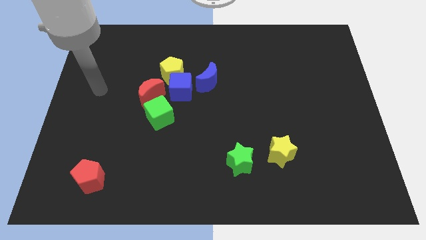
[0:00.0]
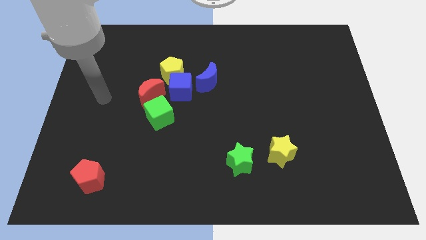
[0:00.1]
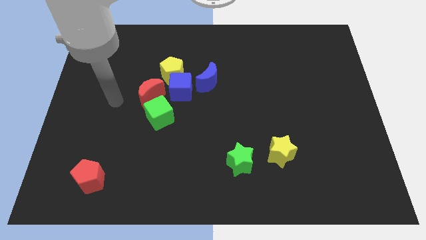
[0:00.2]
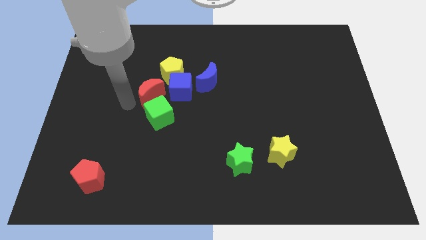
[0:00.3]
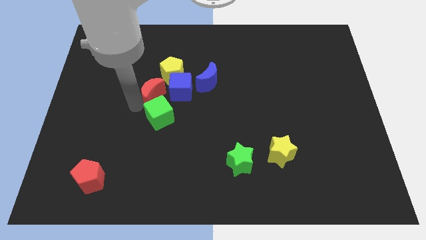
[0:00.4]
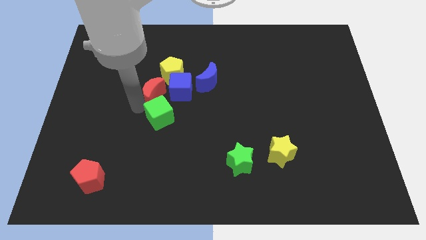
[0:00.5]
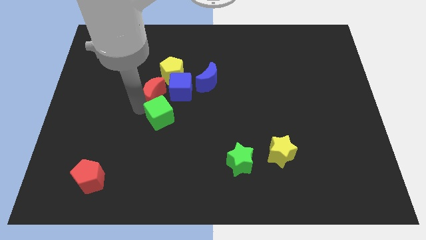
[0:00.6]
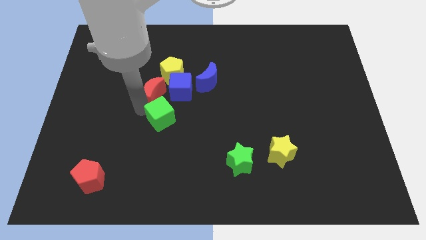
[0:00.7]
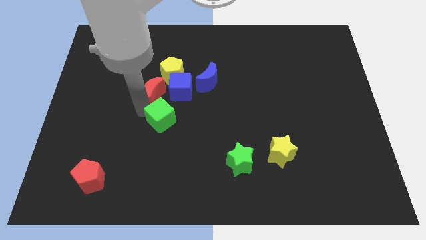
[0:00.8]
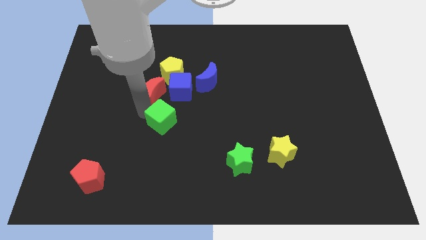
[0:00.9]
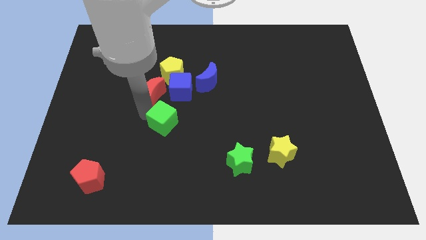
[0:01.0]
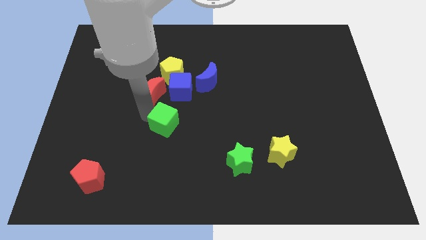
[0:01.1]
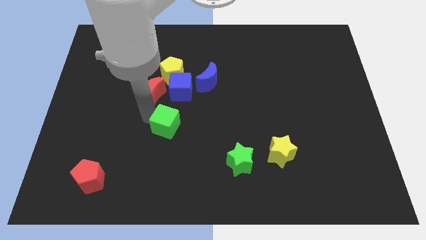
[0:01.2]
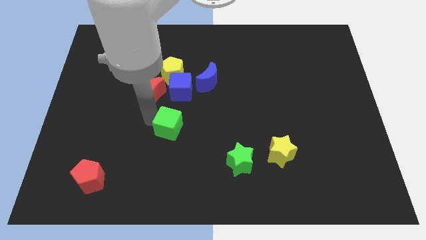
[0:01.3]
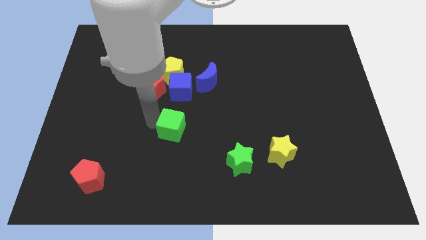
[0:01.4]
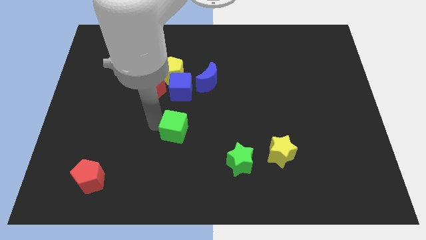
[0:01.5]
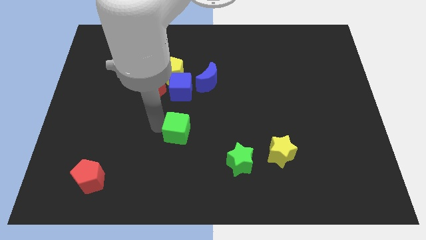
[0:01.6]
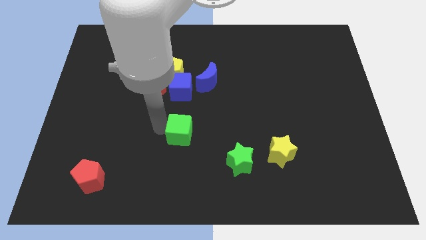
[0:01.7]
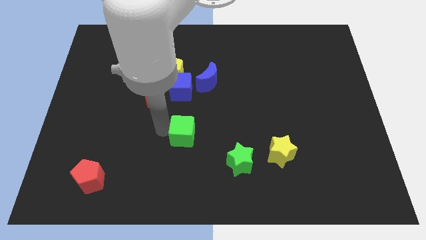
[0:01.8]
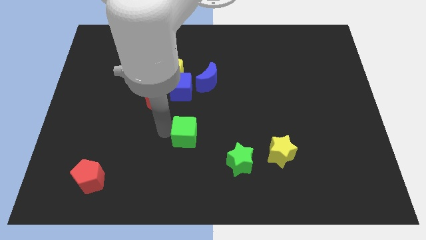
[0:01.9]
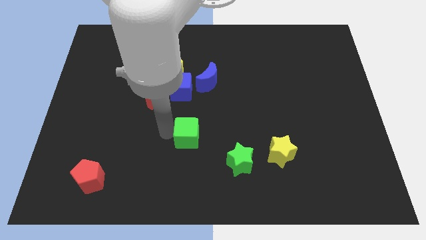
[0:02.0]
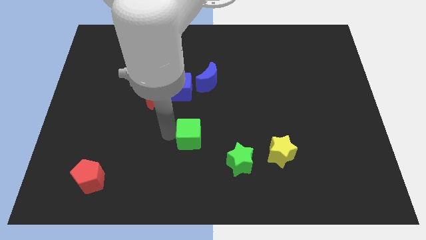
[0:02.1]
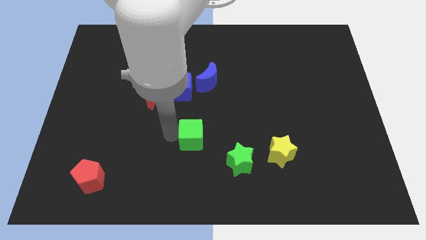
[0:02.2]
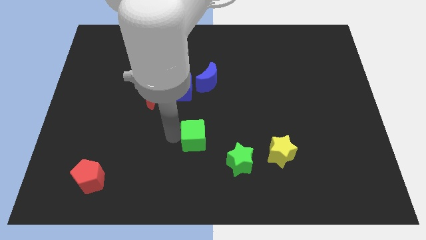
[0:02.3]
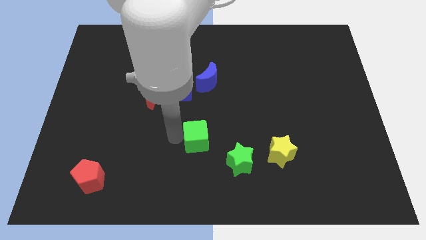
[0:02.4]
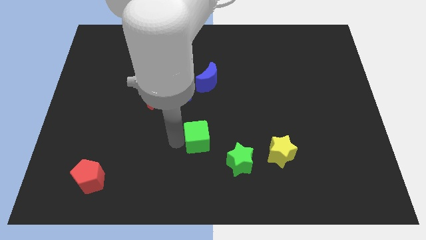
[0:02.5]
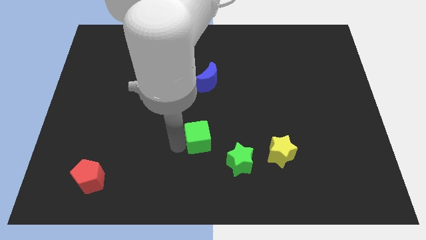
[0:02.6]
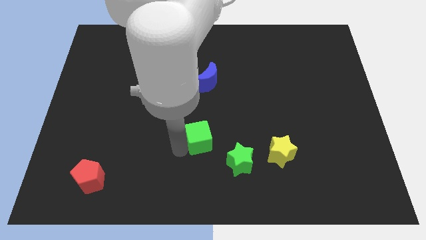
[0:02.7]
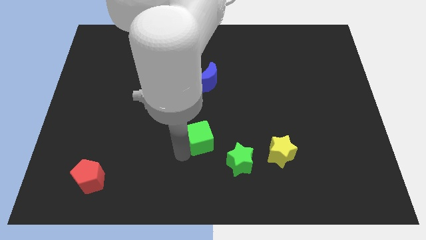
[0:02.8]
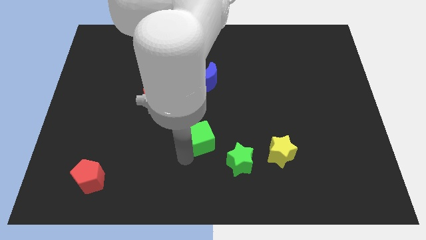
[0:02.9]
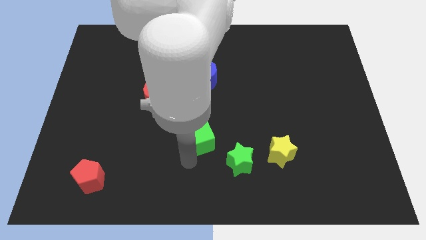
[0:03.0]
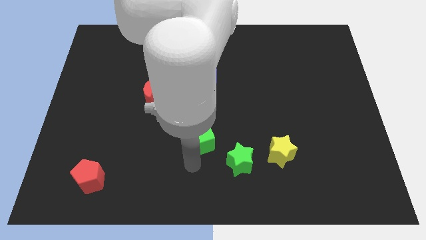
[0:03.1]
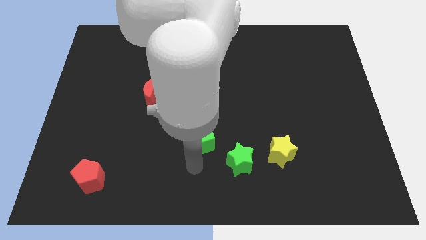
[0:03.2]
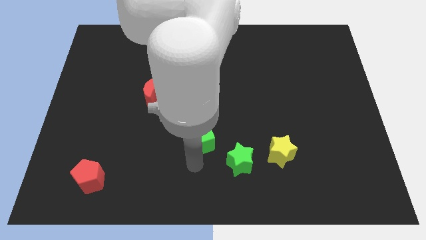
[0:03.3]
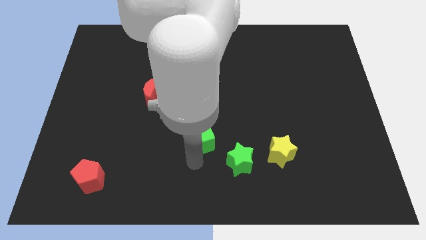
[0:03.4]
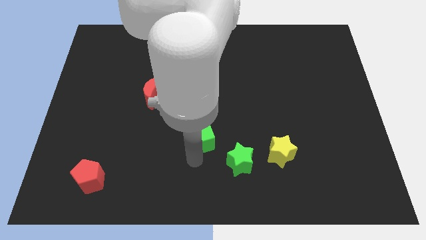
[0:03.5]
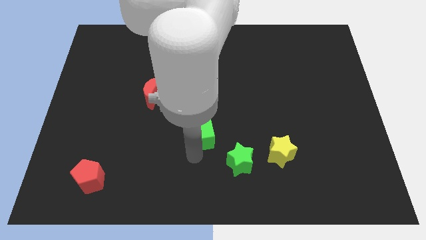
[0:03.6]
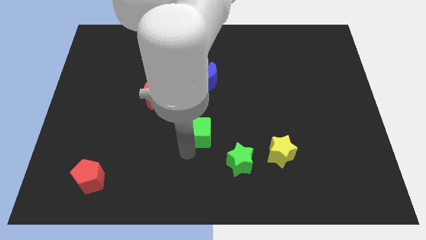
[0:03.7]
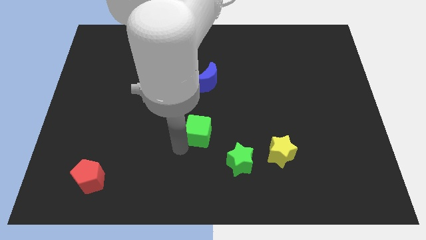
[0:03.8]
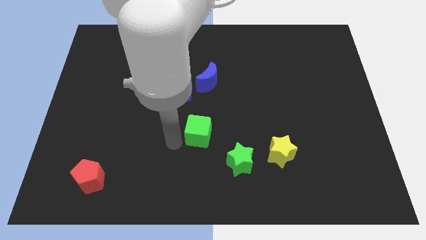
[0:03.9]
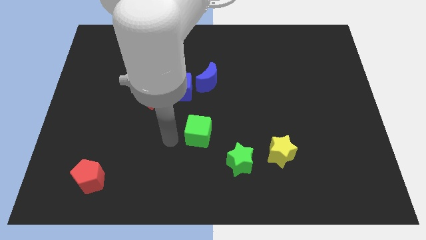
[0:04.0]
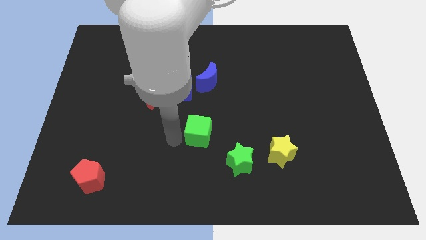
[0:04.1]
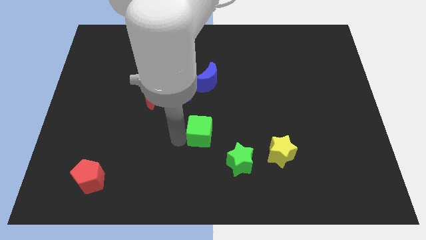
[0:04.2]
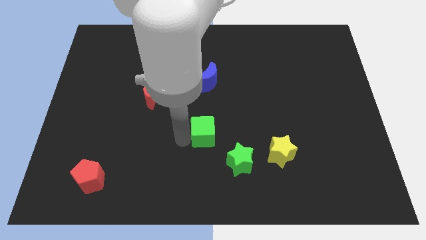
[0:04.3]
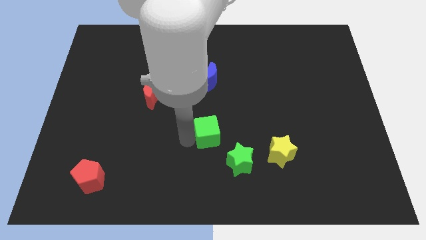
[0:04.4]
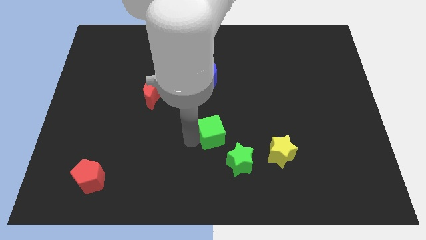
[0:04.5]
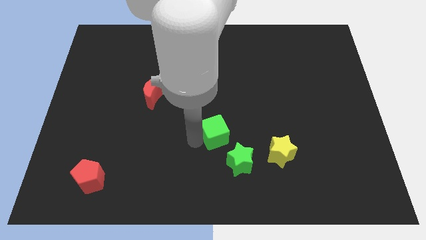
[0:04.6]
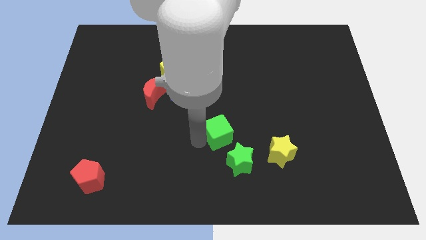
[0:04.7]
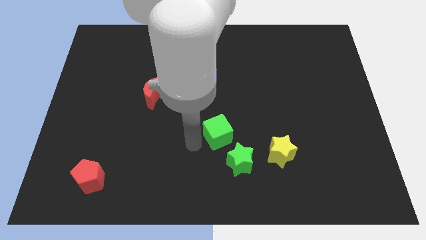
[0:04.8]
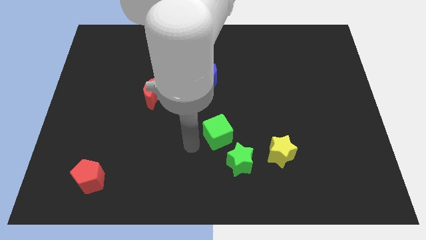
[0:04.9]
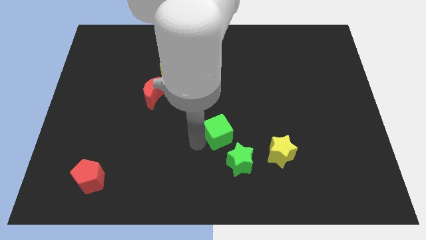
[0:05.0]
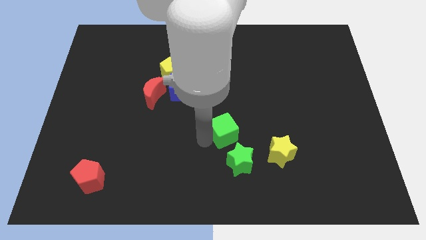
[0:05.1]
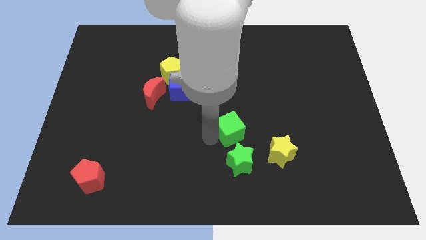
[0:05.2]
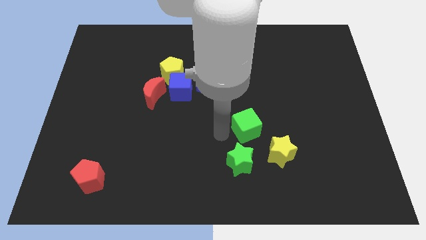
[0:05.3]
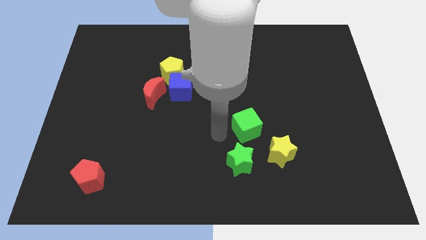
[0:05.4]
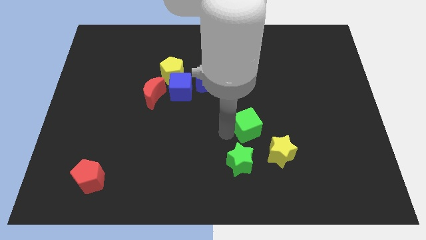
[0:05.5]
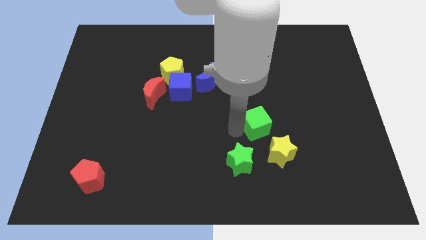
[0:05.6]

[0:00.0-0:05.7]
push the green cube right

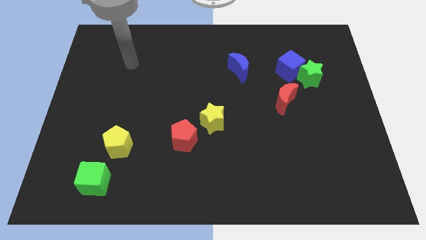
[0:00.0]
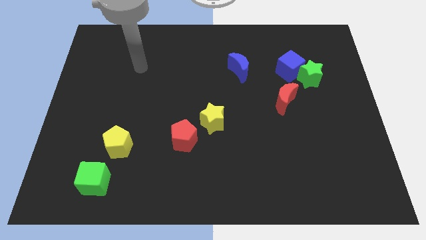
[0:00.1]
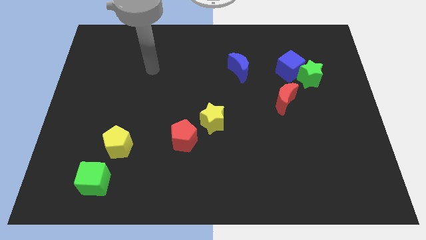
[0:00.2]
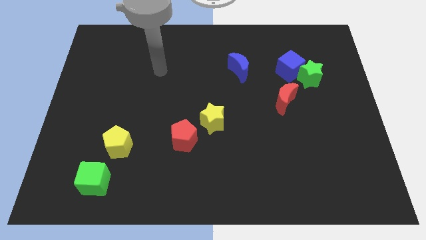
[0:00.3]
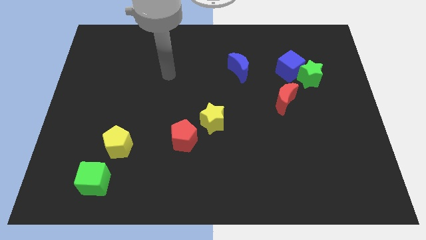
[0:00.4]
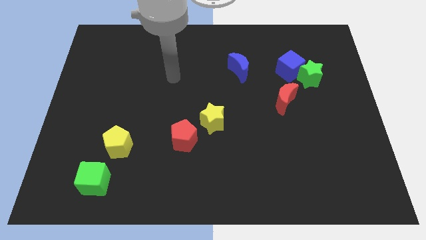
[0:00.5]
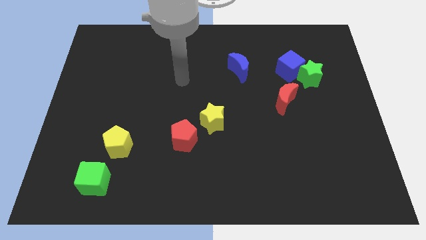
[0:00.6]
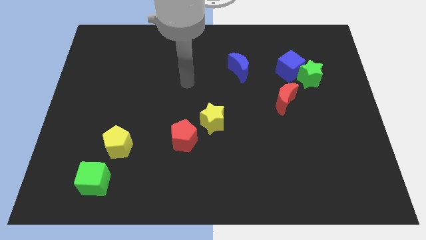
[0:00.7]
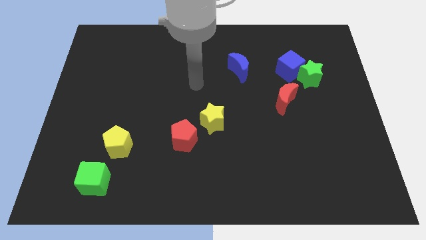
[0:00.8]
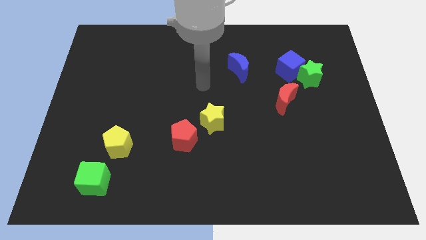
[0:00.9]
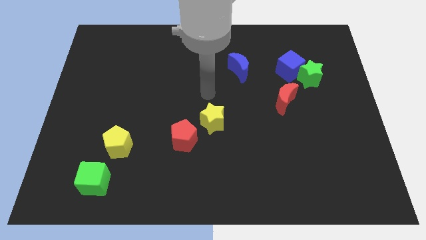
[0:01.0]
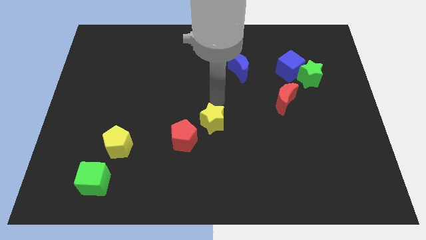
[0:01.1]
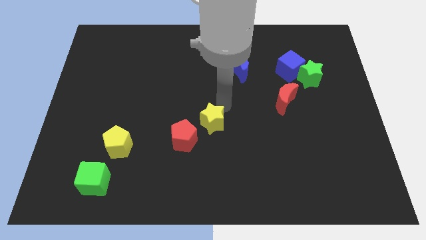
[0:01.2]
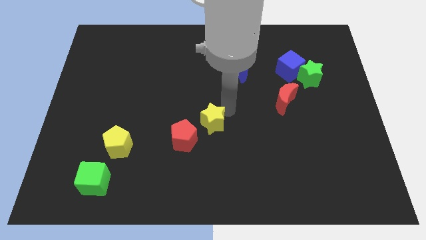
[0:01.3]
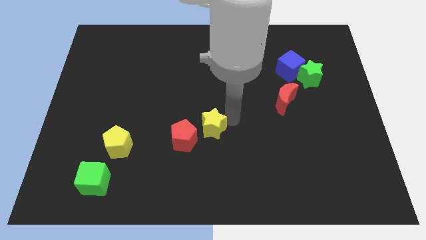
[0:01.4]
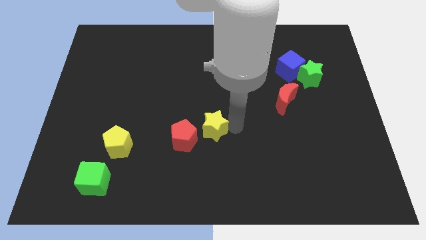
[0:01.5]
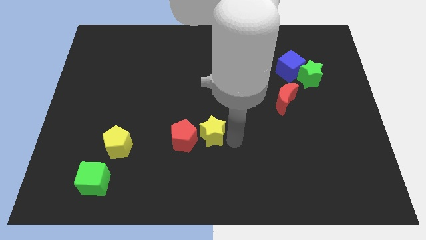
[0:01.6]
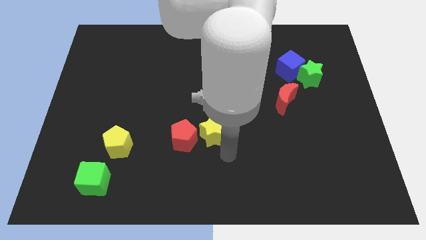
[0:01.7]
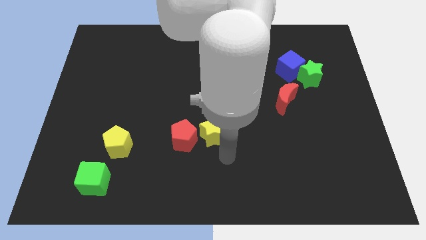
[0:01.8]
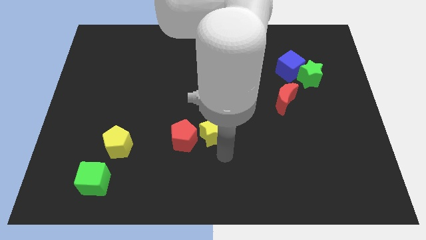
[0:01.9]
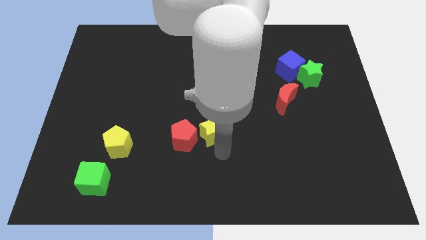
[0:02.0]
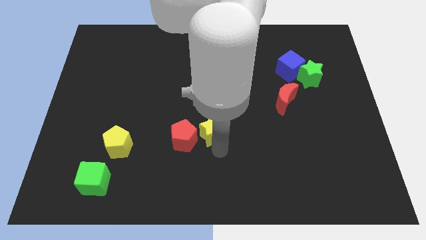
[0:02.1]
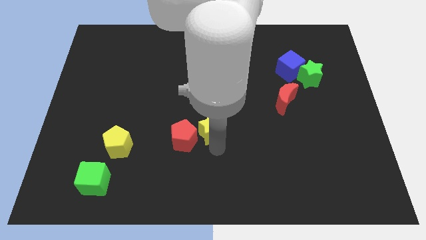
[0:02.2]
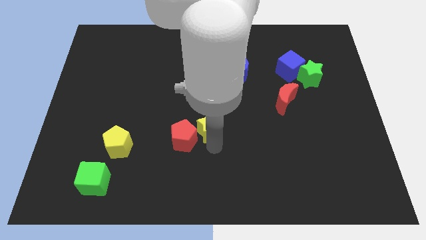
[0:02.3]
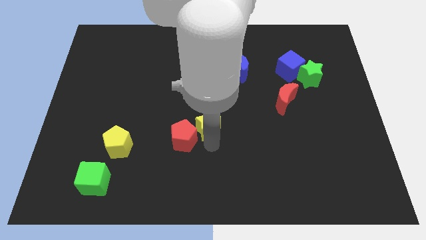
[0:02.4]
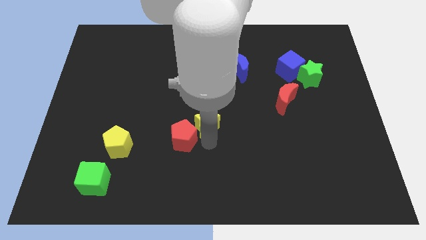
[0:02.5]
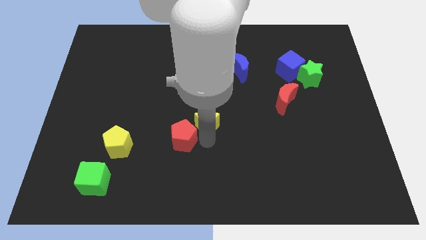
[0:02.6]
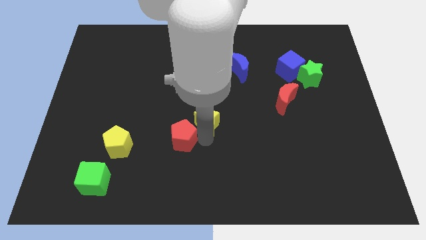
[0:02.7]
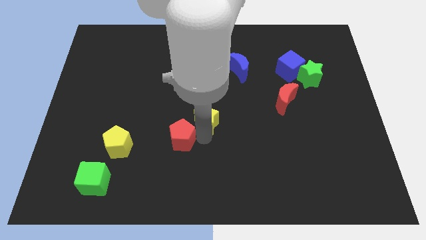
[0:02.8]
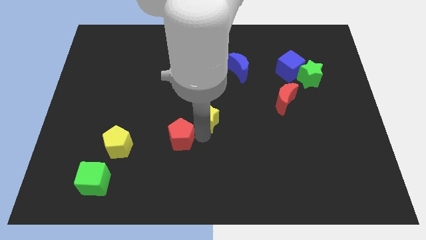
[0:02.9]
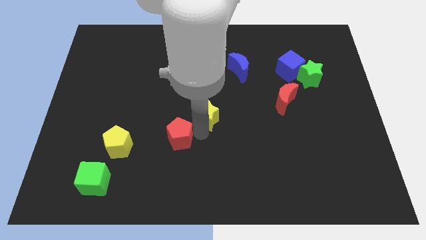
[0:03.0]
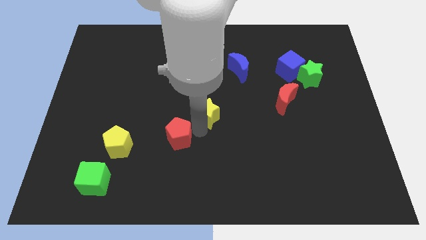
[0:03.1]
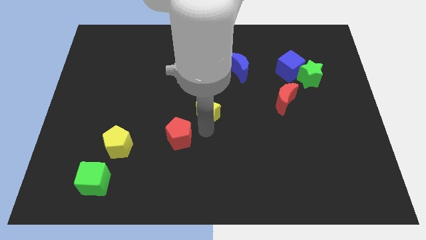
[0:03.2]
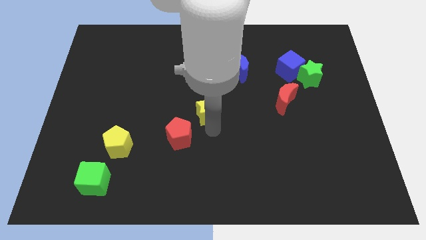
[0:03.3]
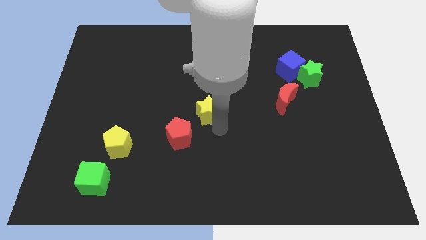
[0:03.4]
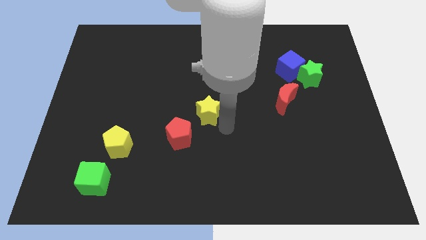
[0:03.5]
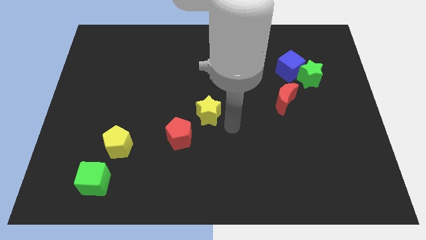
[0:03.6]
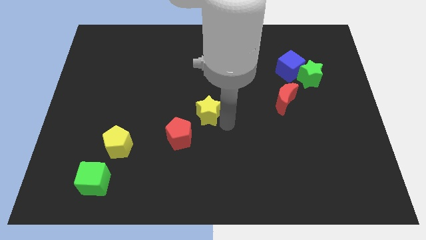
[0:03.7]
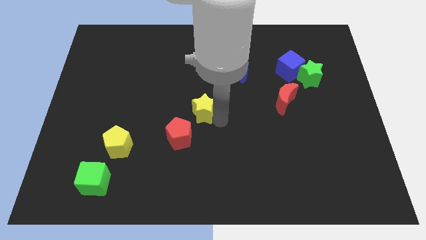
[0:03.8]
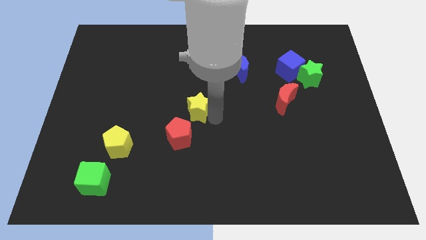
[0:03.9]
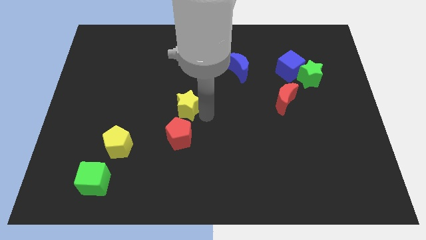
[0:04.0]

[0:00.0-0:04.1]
move the yellow star slightly diagonally up and to the left
